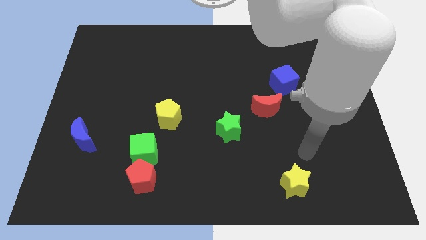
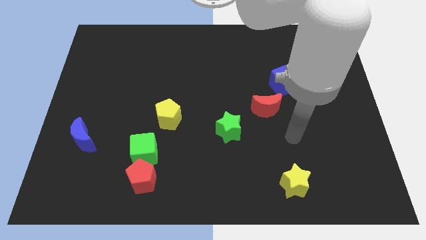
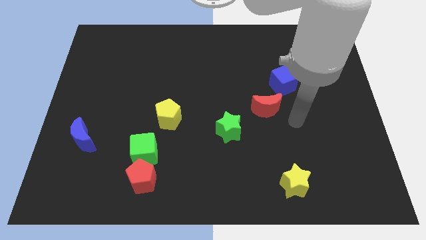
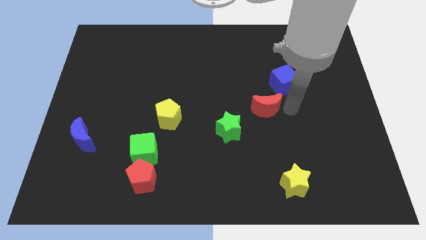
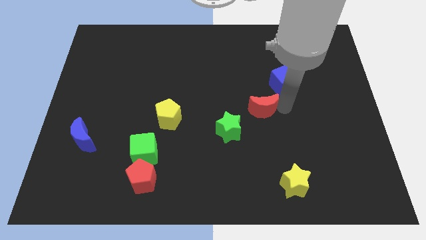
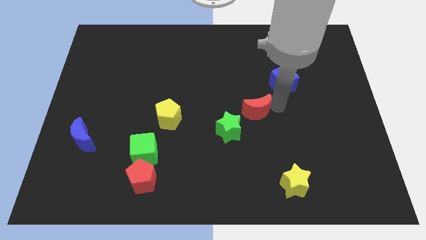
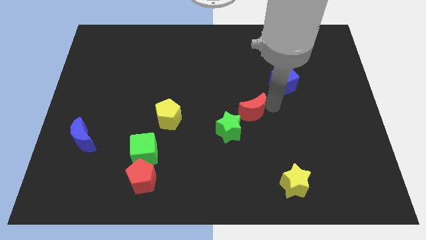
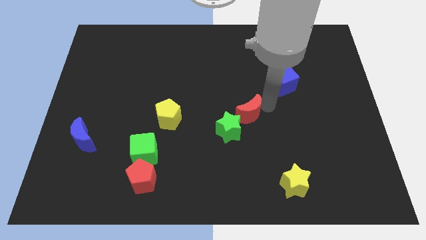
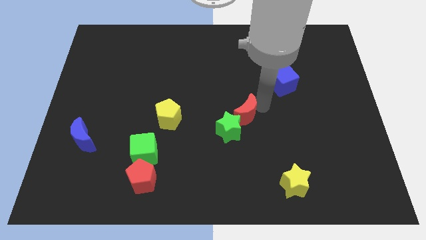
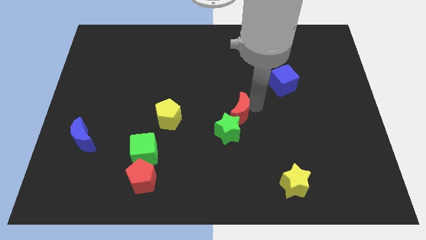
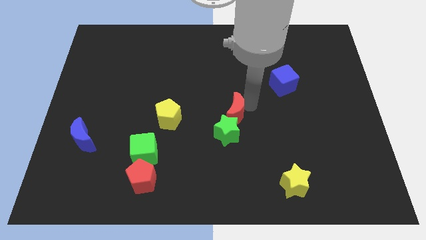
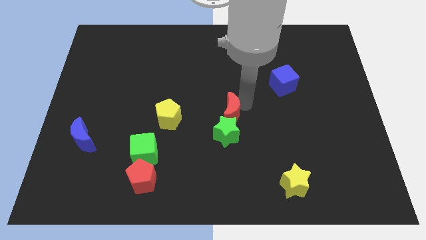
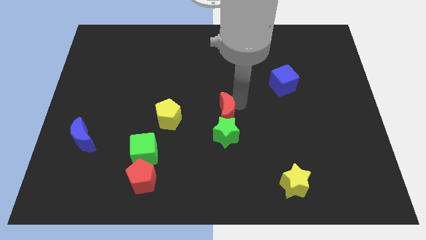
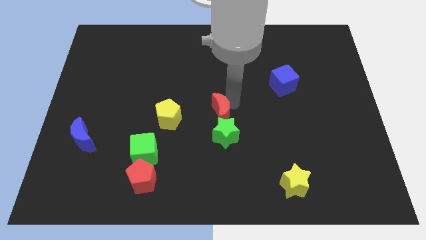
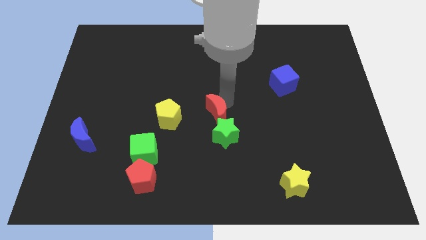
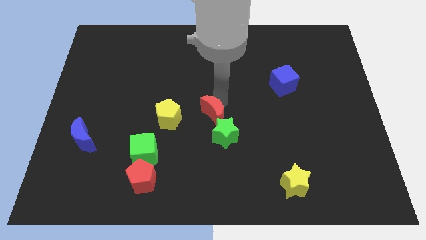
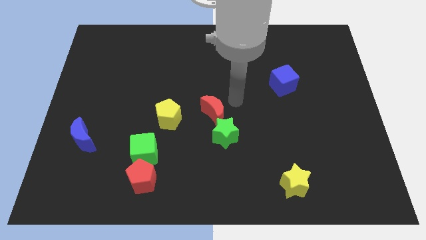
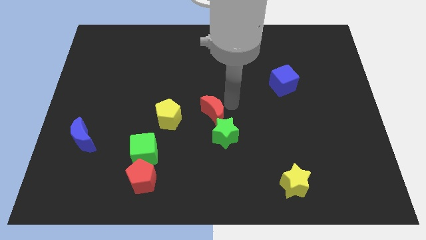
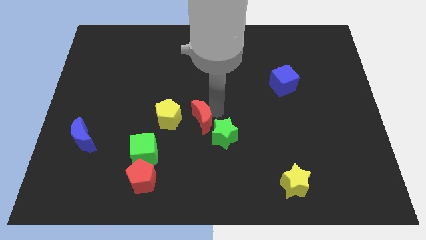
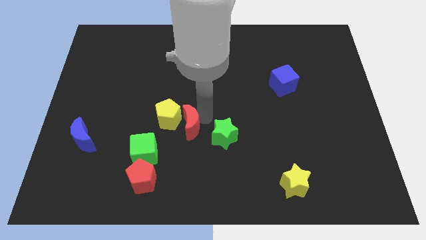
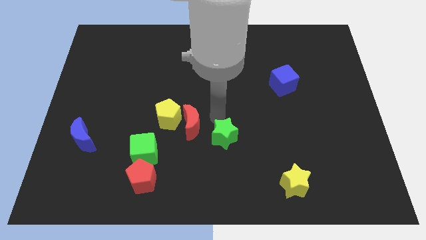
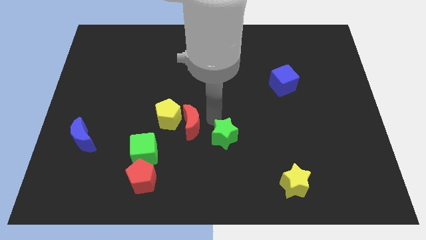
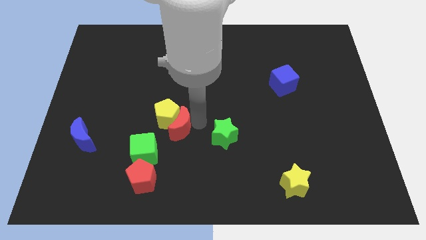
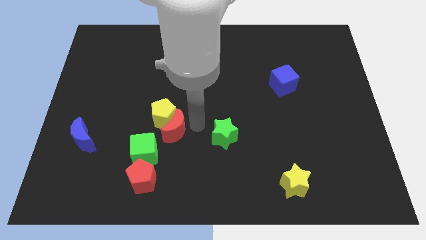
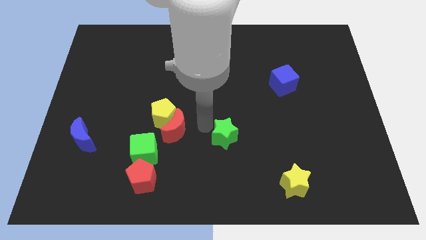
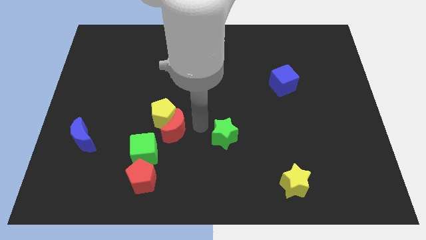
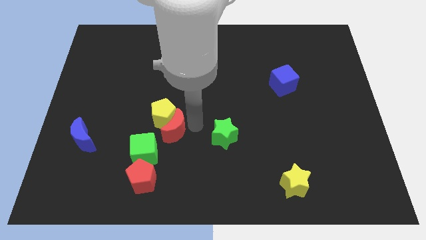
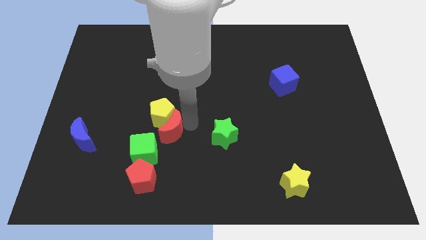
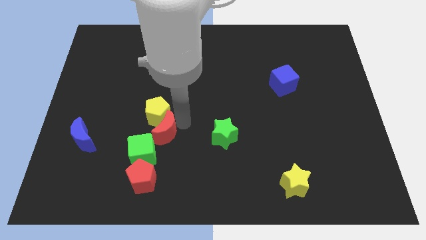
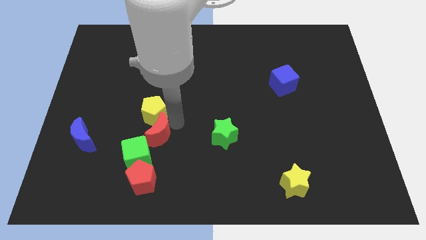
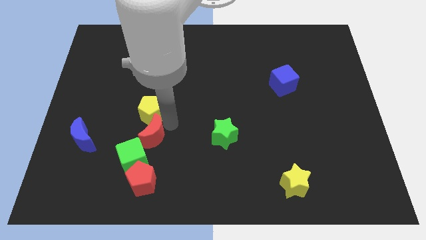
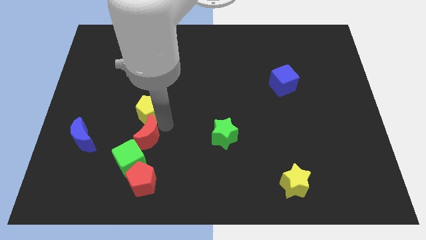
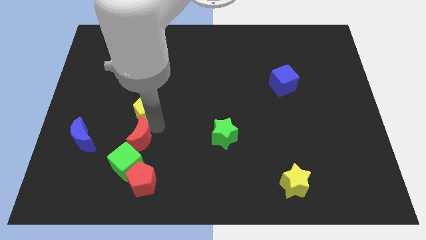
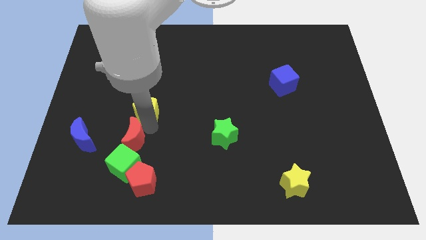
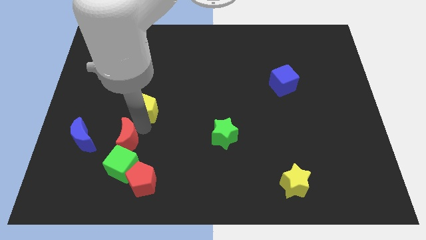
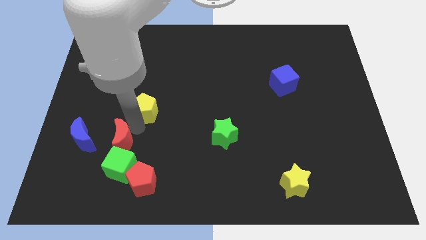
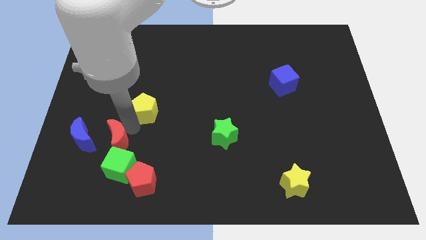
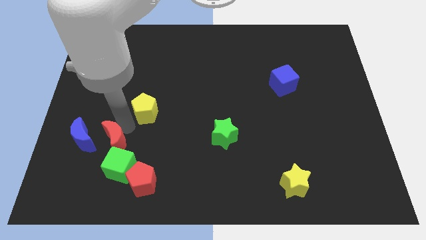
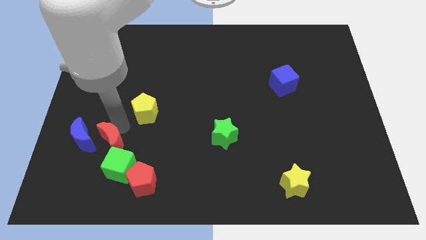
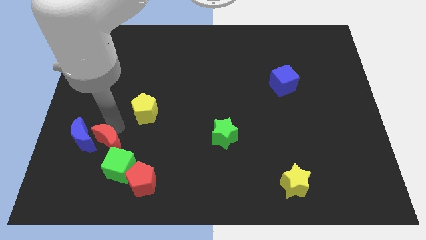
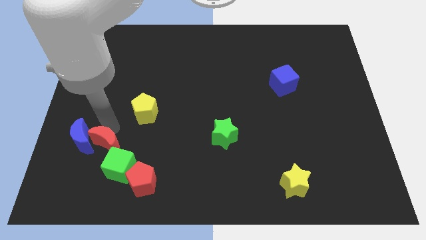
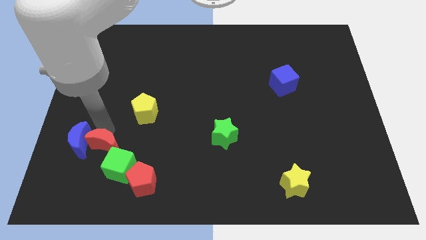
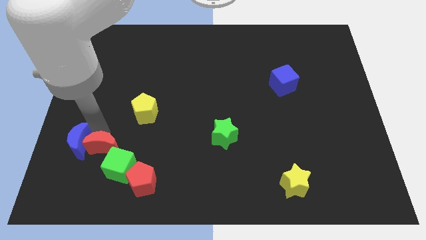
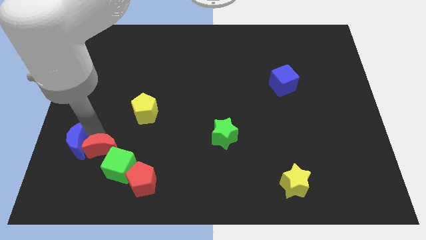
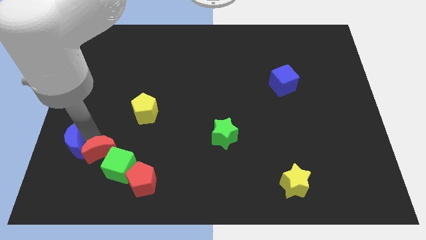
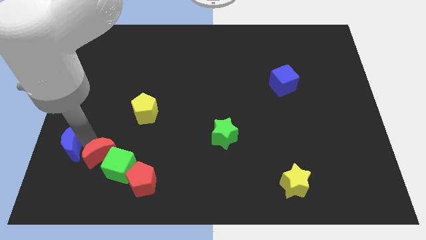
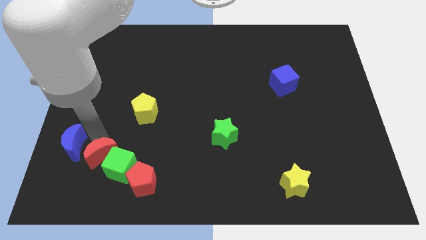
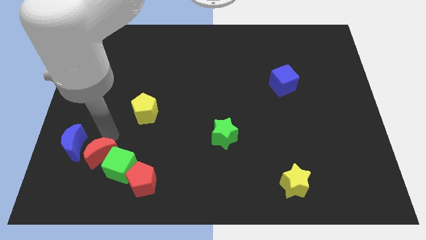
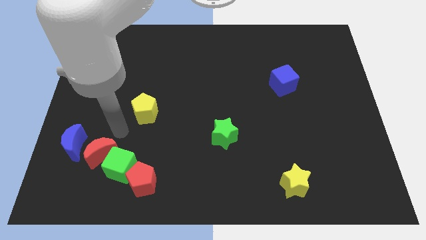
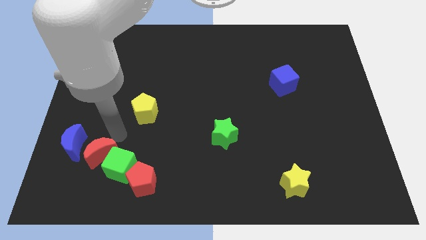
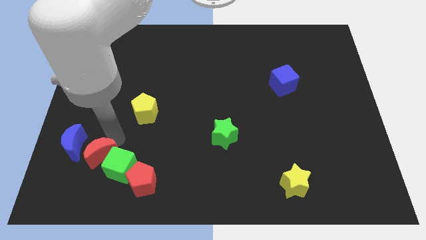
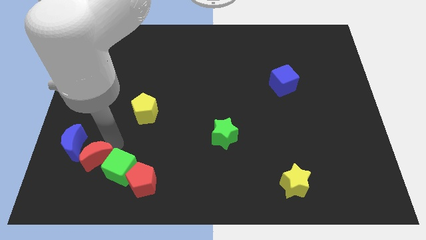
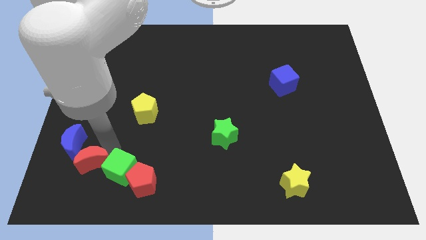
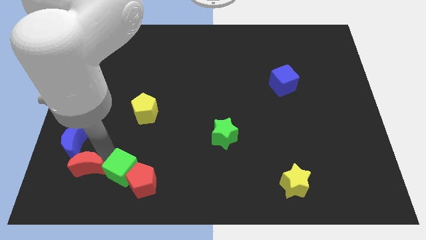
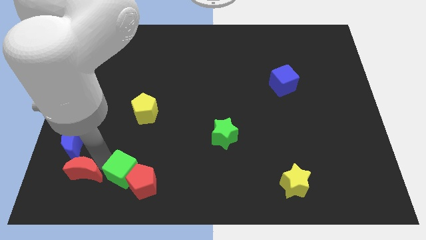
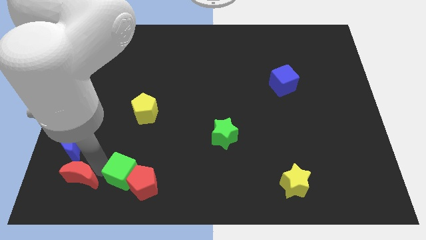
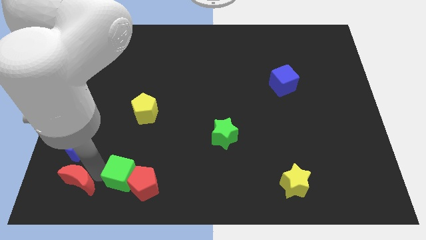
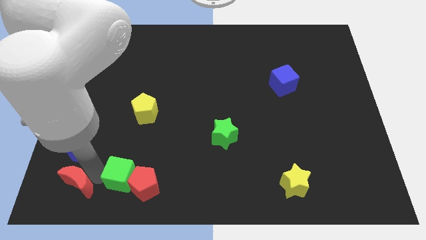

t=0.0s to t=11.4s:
put the red moon to the lower left corner
